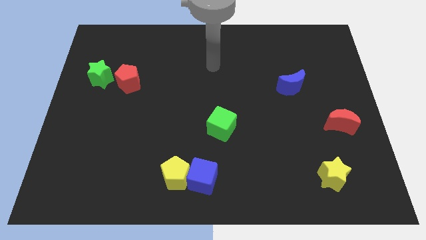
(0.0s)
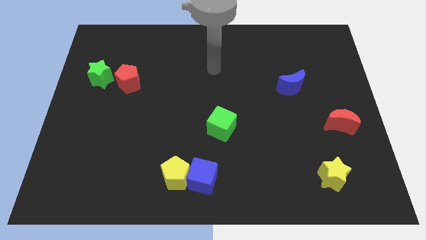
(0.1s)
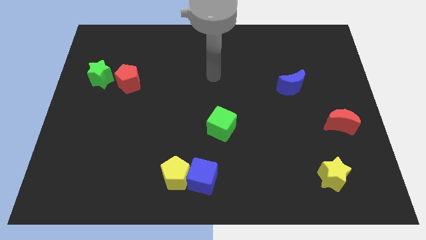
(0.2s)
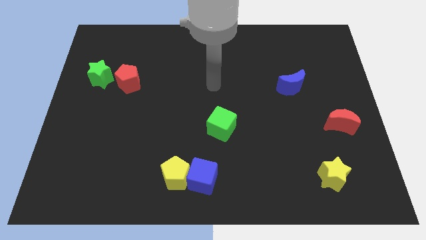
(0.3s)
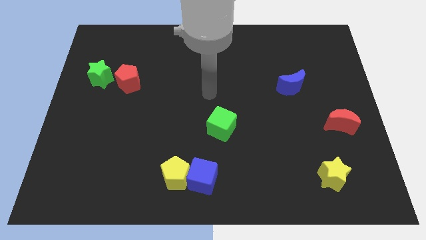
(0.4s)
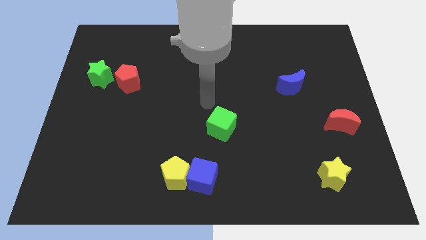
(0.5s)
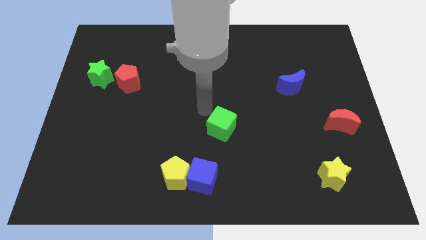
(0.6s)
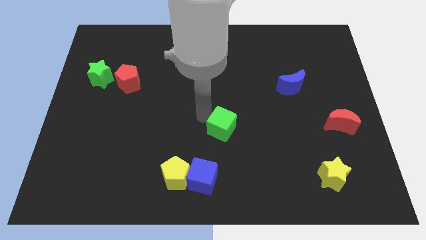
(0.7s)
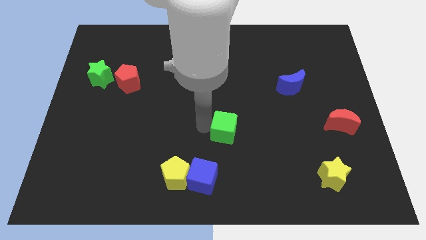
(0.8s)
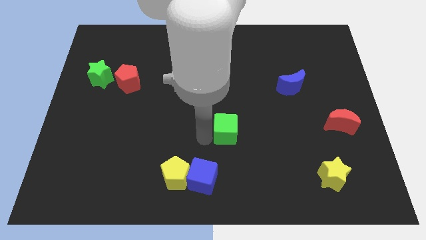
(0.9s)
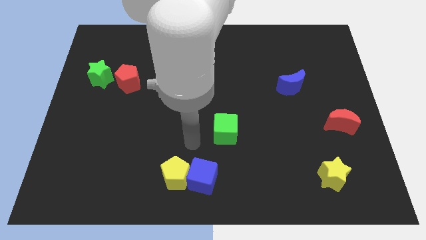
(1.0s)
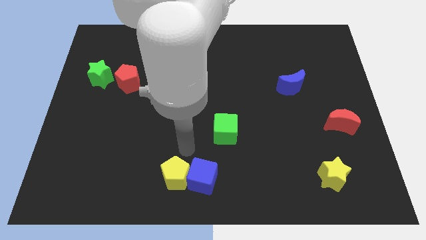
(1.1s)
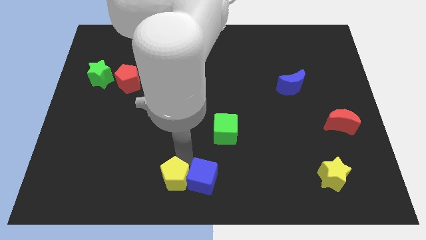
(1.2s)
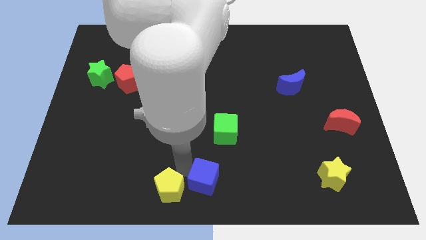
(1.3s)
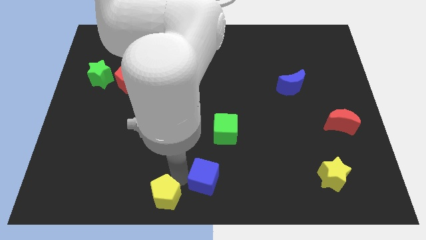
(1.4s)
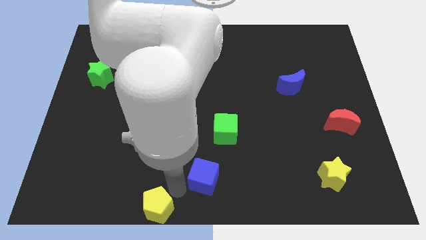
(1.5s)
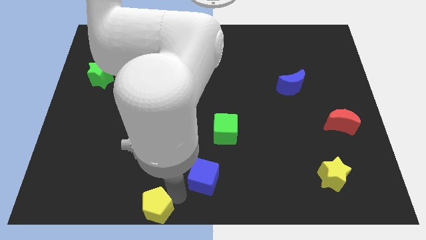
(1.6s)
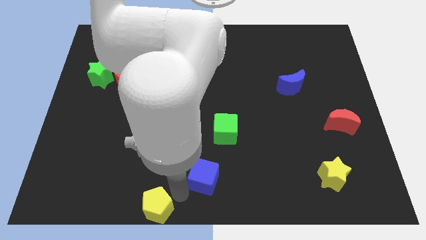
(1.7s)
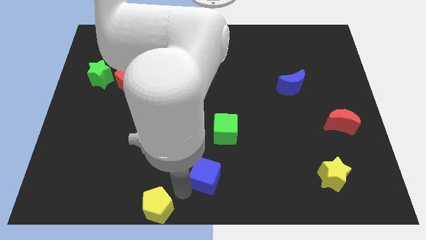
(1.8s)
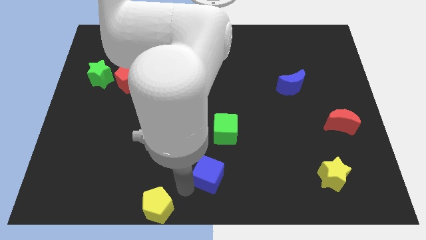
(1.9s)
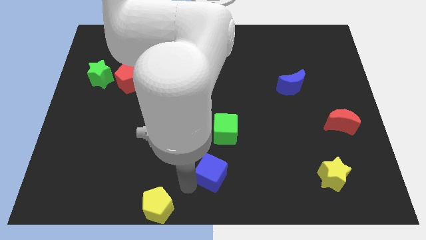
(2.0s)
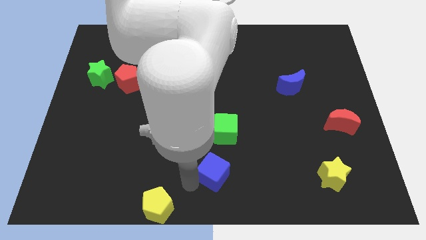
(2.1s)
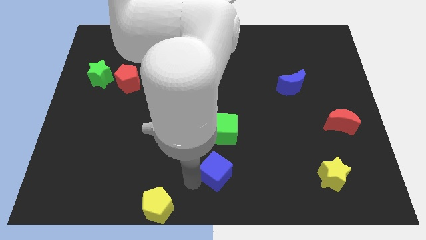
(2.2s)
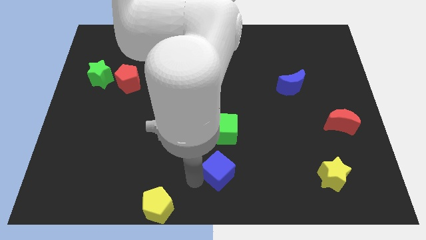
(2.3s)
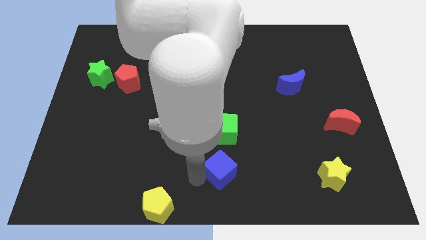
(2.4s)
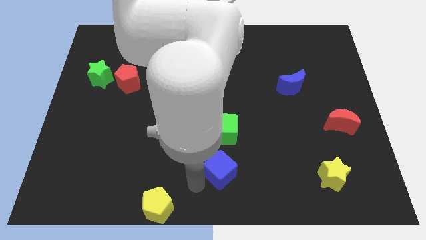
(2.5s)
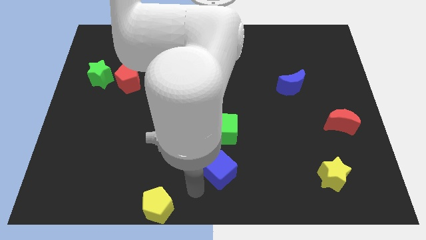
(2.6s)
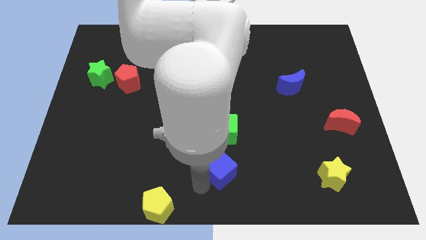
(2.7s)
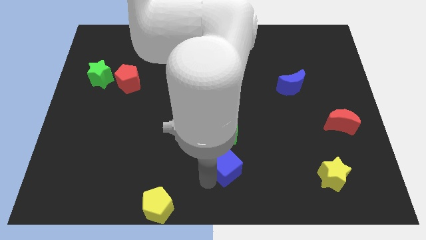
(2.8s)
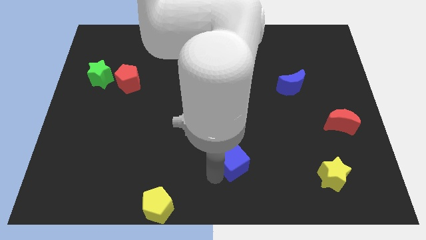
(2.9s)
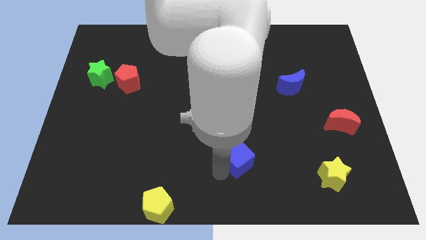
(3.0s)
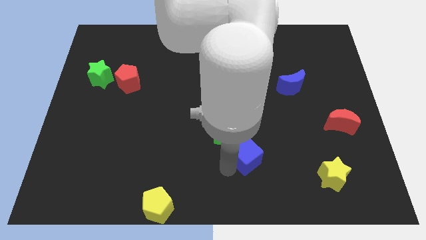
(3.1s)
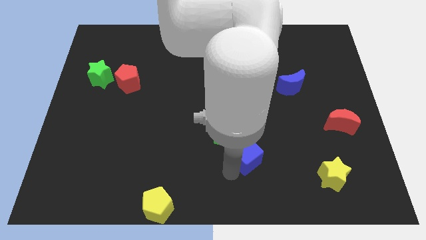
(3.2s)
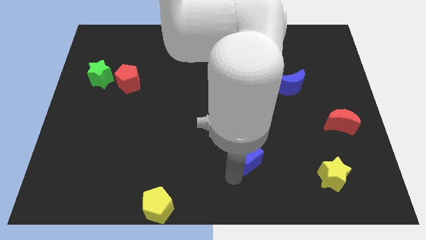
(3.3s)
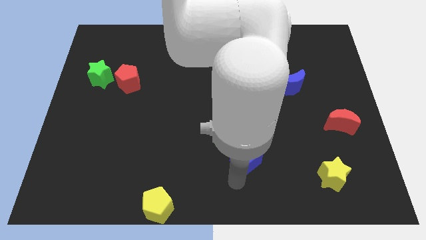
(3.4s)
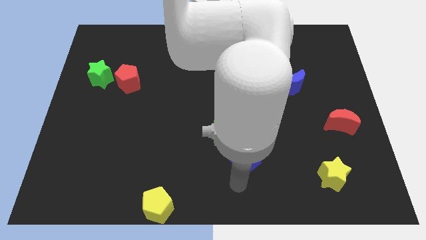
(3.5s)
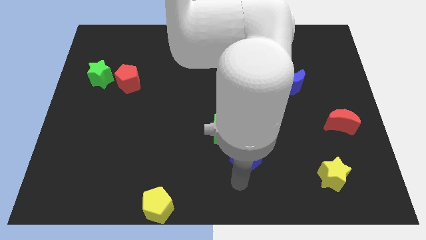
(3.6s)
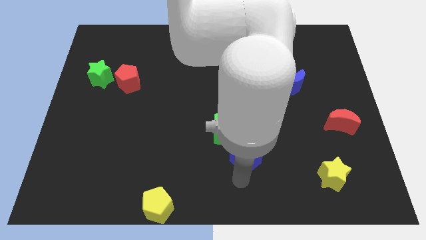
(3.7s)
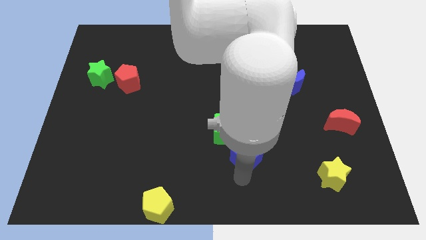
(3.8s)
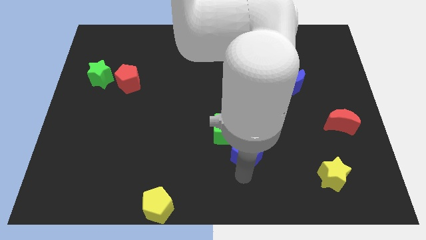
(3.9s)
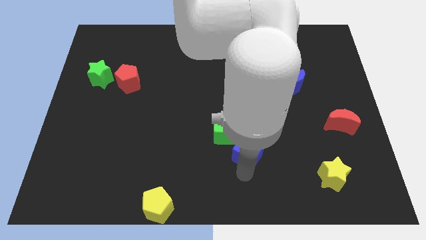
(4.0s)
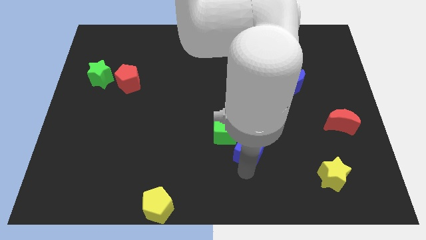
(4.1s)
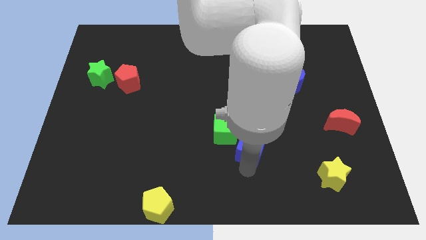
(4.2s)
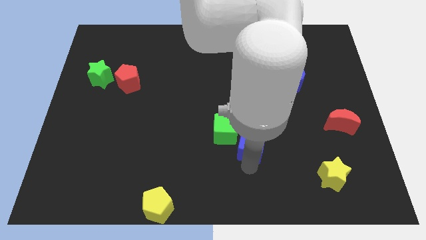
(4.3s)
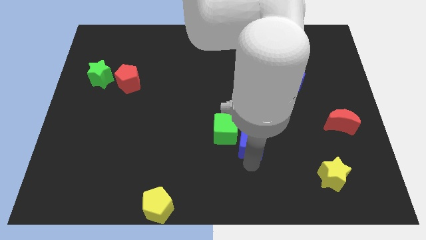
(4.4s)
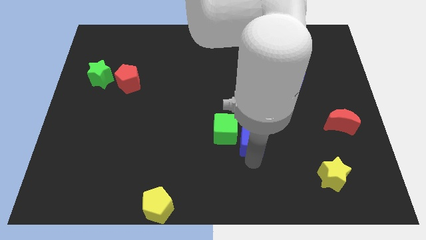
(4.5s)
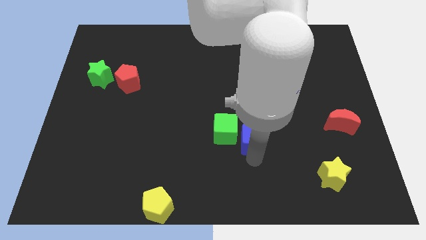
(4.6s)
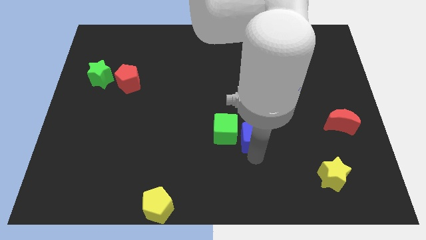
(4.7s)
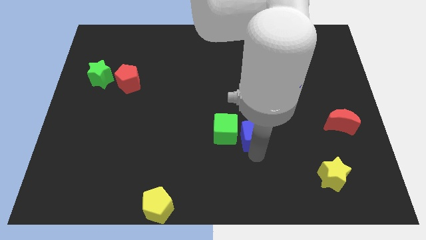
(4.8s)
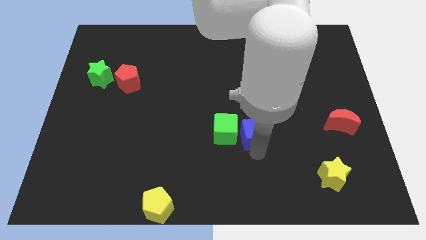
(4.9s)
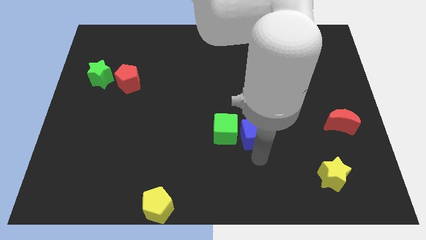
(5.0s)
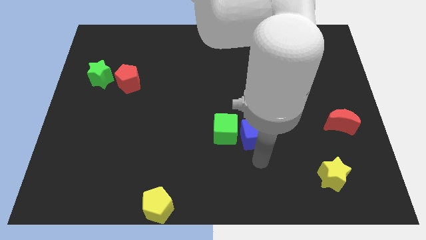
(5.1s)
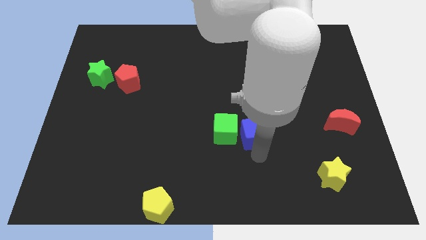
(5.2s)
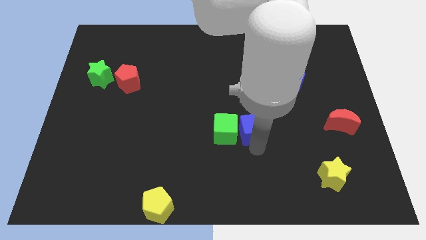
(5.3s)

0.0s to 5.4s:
move the blue cube diagonally up and to the right of the green cube

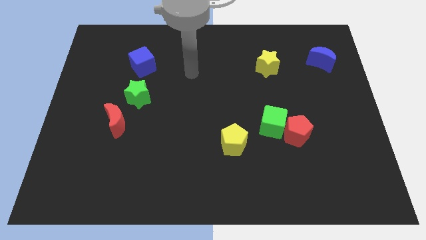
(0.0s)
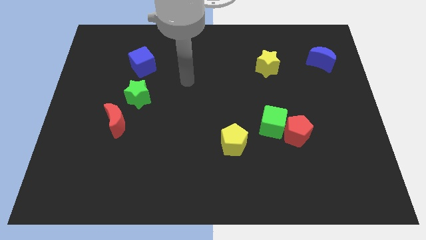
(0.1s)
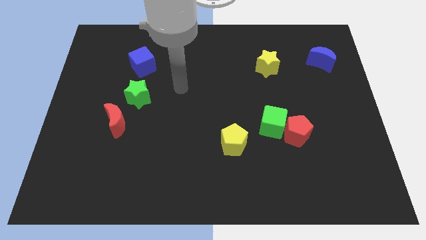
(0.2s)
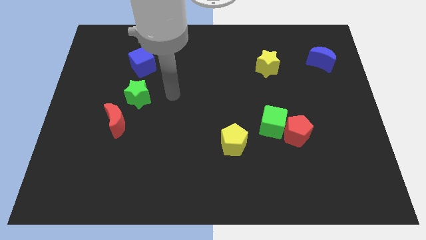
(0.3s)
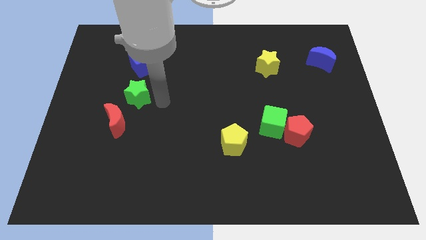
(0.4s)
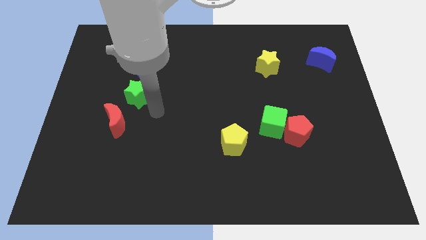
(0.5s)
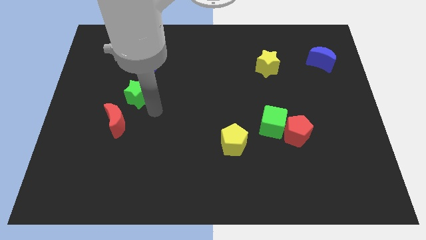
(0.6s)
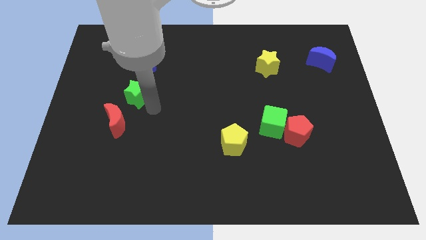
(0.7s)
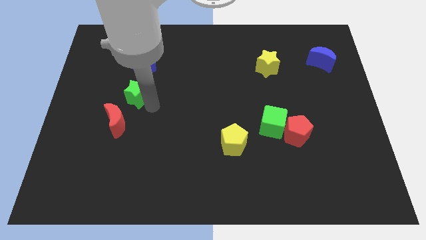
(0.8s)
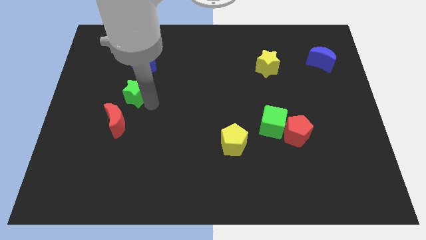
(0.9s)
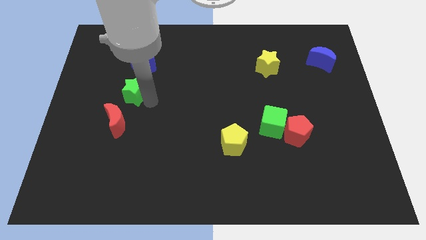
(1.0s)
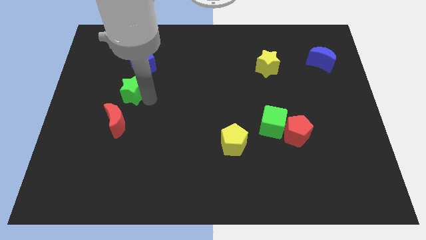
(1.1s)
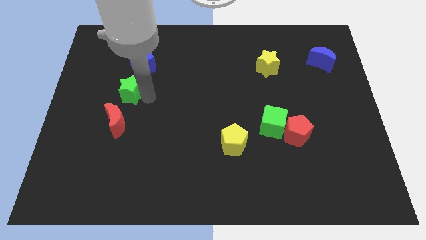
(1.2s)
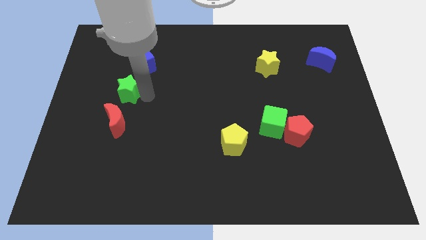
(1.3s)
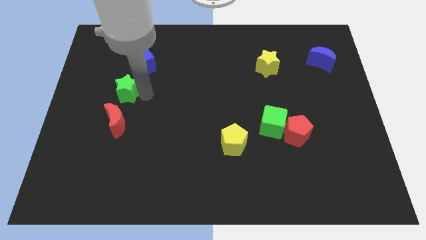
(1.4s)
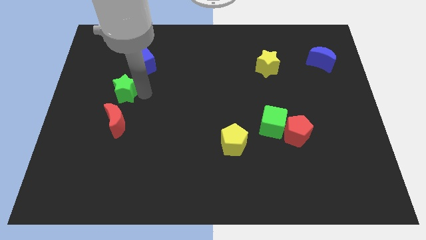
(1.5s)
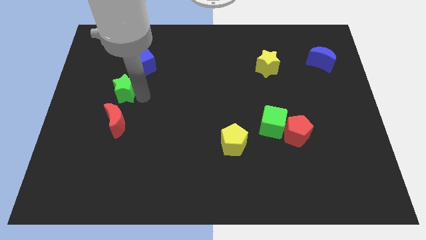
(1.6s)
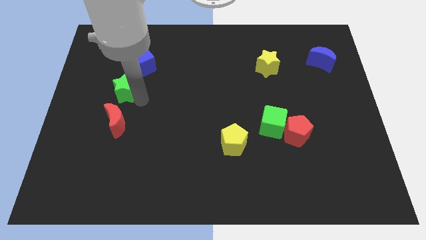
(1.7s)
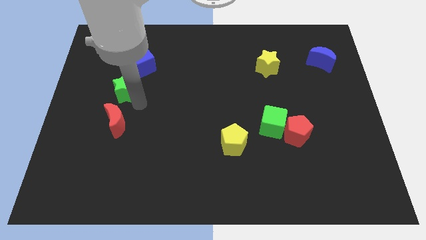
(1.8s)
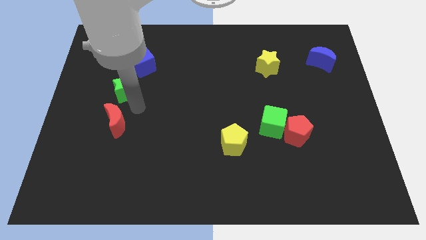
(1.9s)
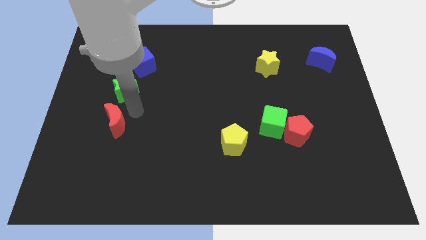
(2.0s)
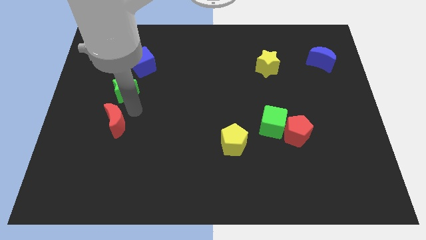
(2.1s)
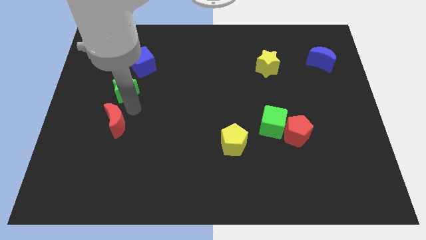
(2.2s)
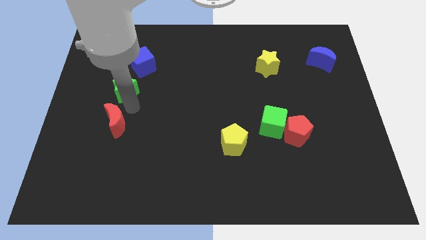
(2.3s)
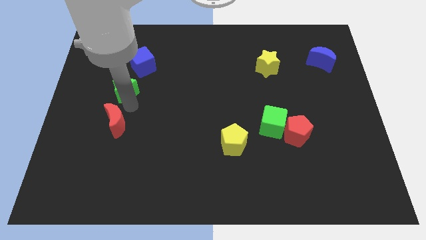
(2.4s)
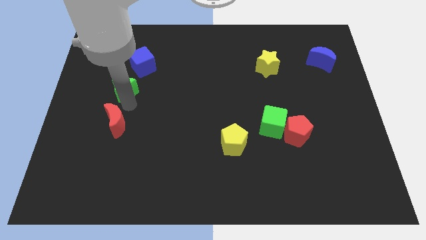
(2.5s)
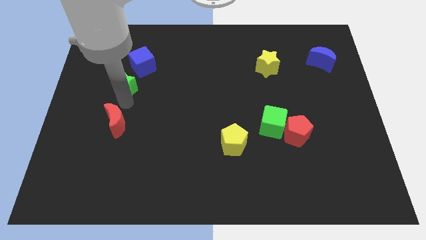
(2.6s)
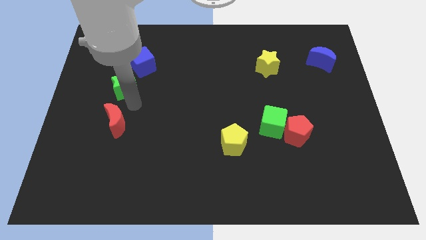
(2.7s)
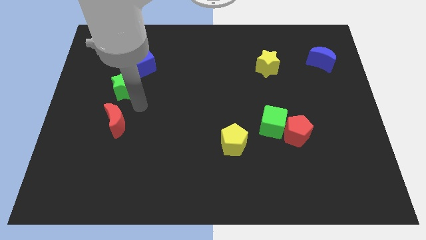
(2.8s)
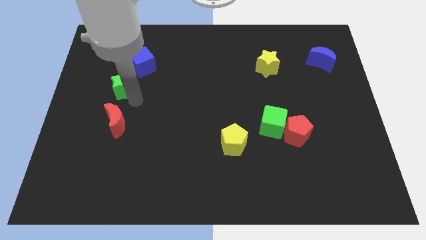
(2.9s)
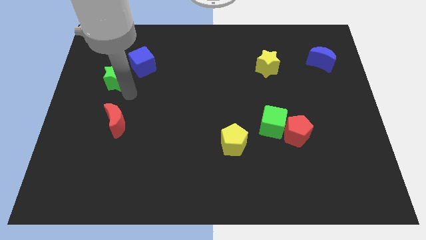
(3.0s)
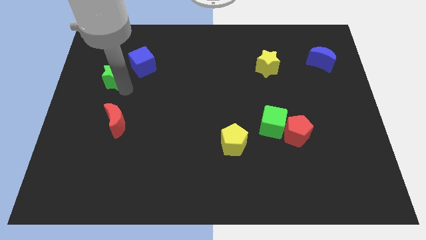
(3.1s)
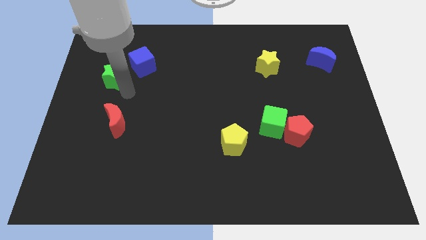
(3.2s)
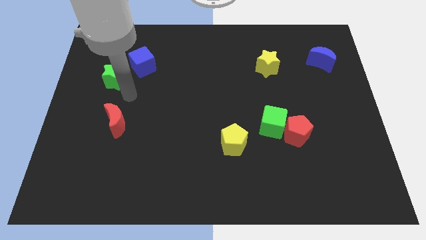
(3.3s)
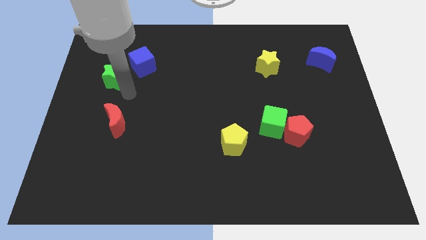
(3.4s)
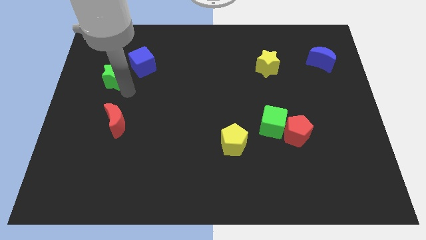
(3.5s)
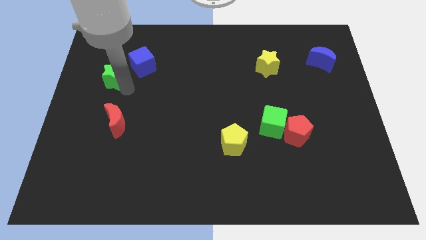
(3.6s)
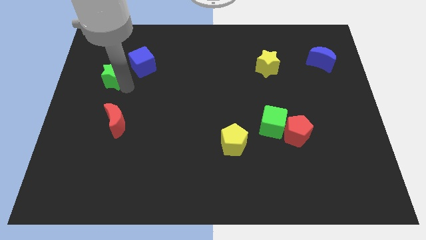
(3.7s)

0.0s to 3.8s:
push the green star to the left of the blue cube
